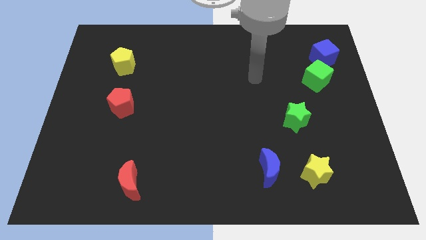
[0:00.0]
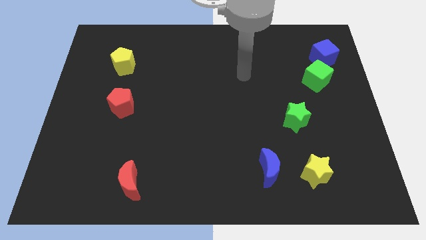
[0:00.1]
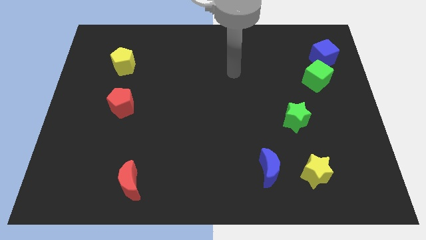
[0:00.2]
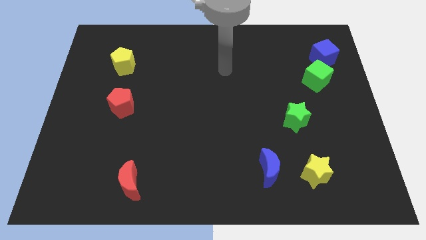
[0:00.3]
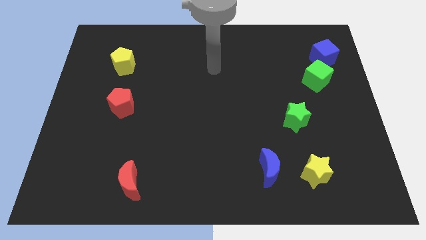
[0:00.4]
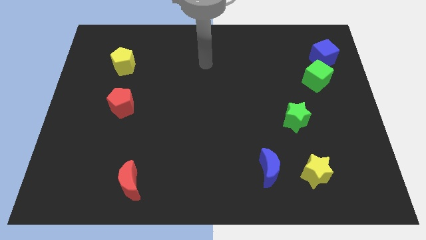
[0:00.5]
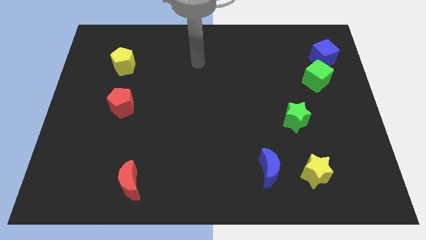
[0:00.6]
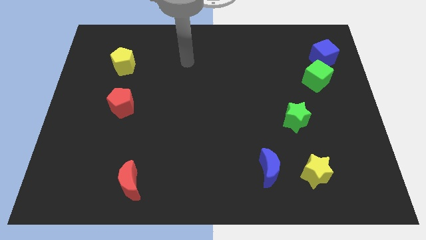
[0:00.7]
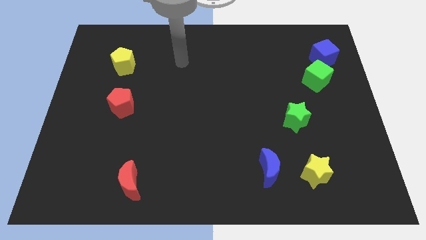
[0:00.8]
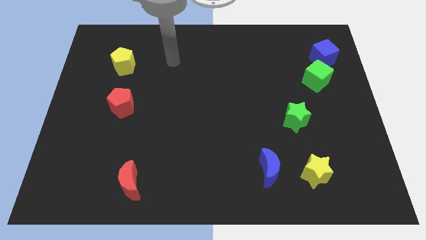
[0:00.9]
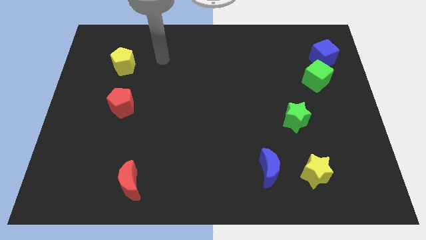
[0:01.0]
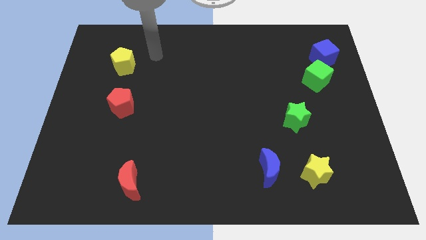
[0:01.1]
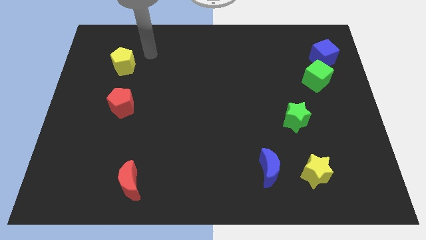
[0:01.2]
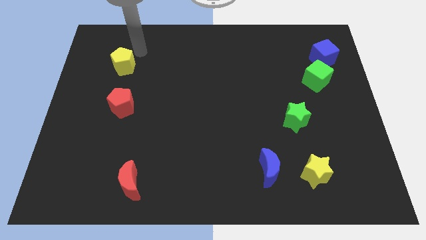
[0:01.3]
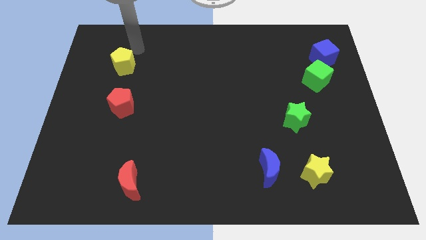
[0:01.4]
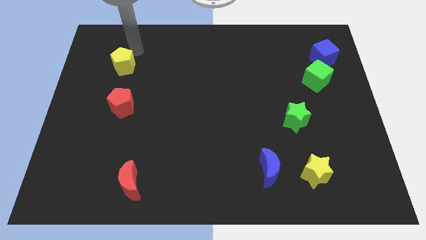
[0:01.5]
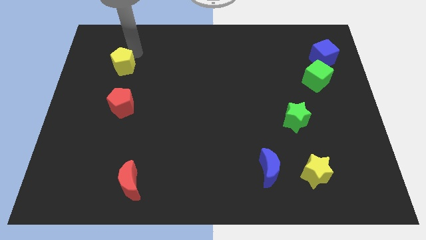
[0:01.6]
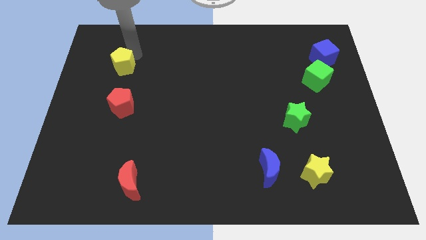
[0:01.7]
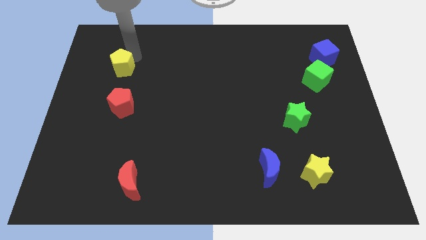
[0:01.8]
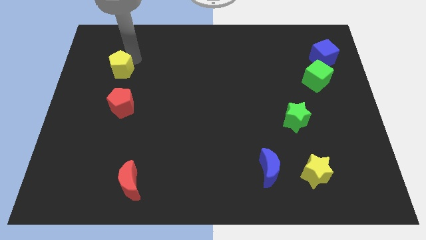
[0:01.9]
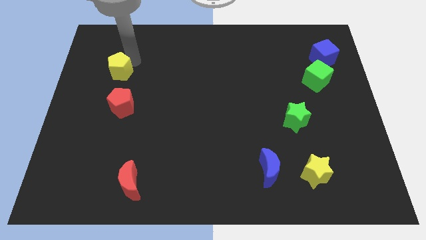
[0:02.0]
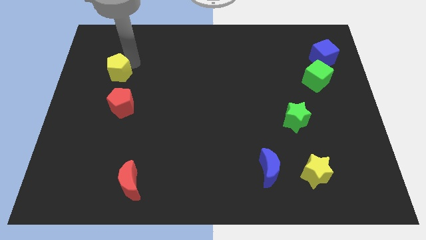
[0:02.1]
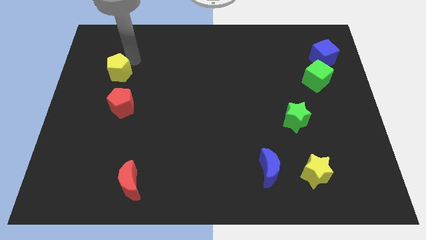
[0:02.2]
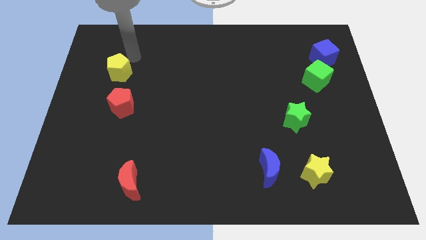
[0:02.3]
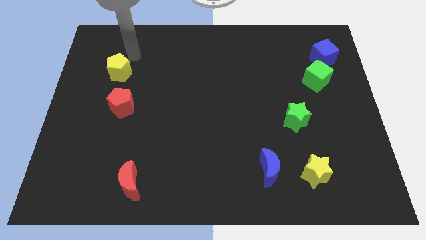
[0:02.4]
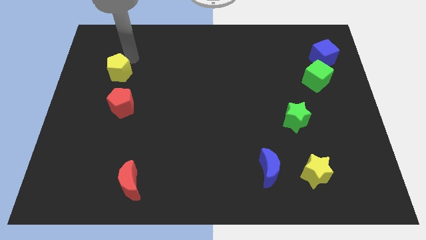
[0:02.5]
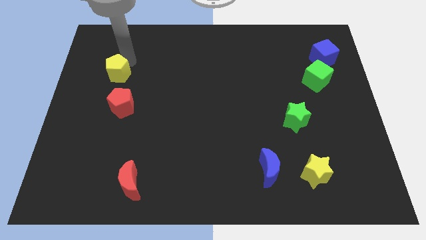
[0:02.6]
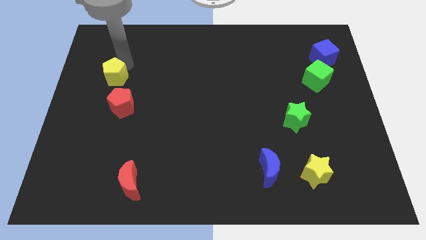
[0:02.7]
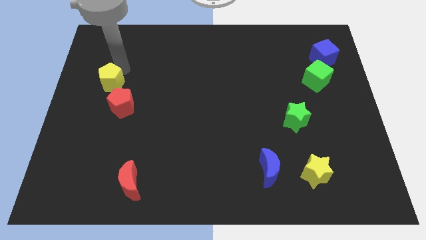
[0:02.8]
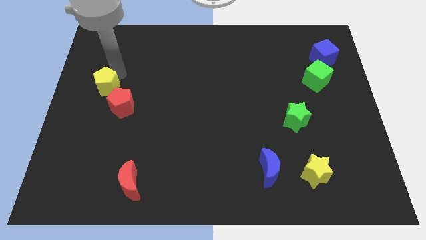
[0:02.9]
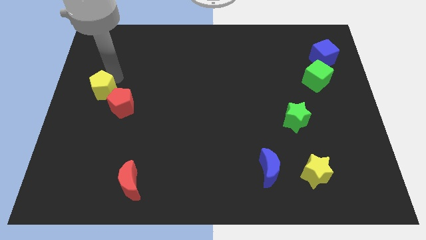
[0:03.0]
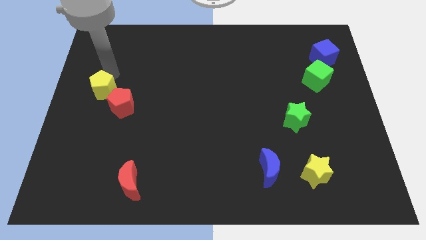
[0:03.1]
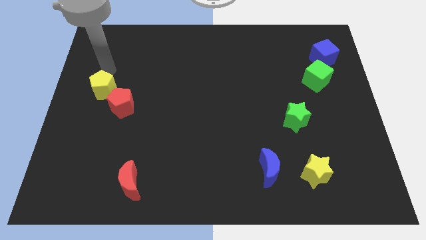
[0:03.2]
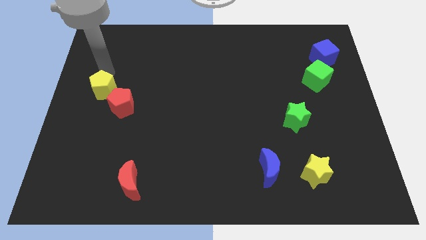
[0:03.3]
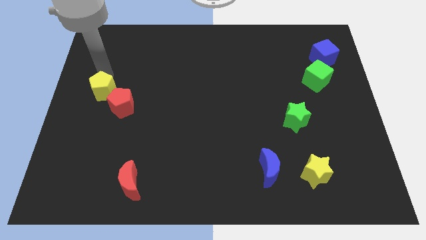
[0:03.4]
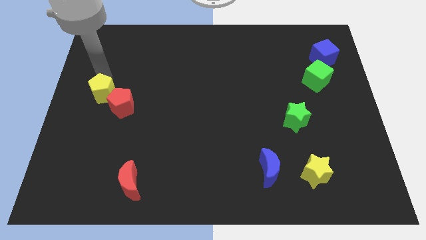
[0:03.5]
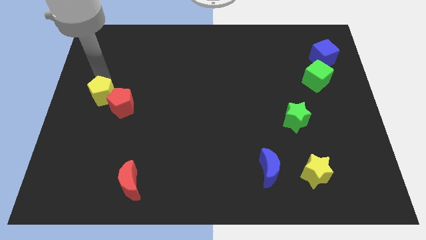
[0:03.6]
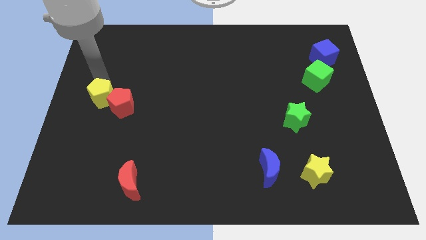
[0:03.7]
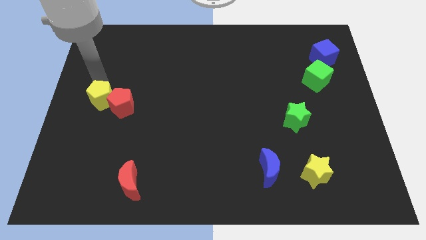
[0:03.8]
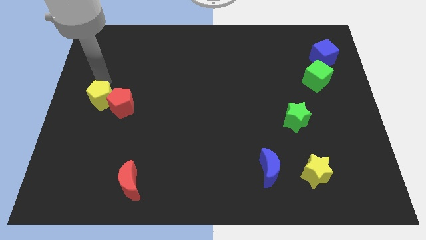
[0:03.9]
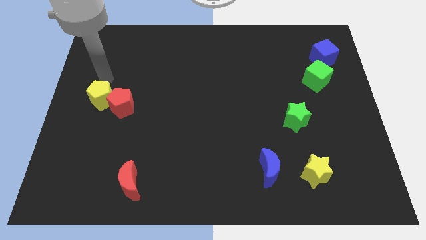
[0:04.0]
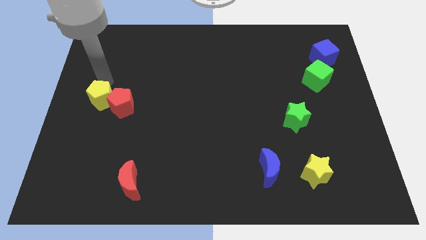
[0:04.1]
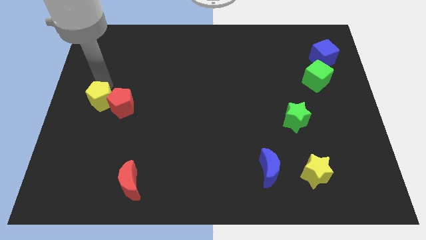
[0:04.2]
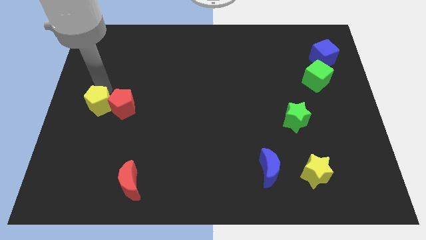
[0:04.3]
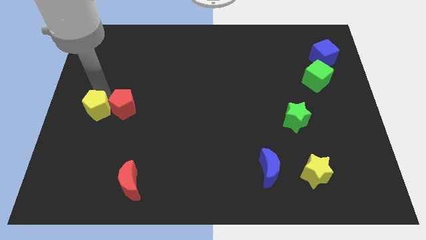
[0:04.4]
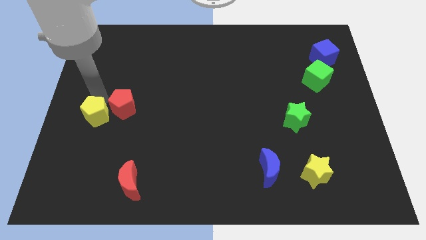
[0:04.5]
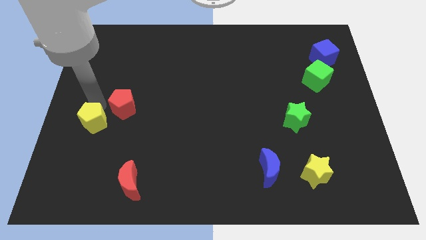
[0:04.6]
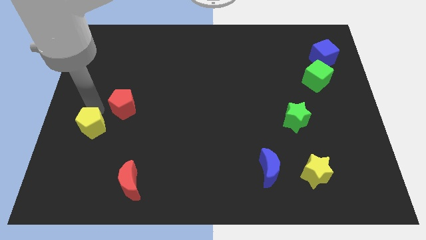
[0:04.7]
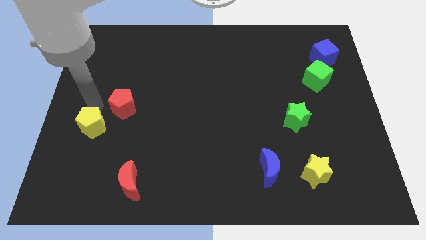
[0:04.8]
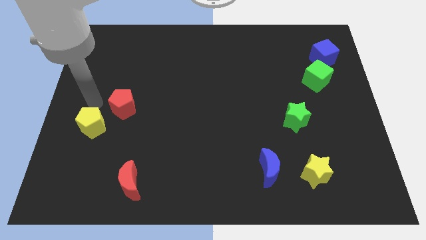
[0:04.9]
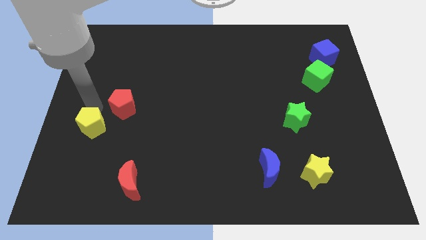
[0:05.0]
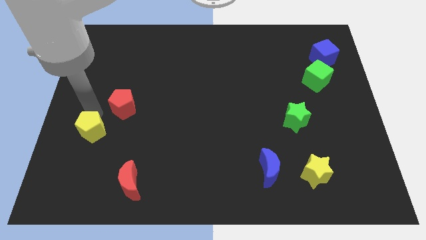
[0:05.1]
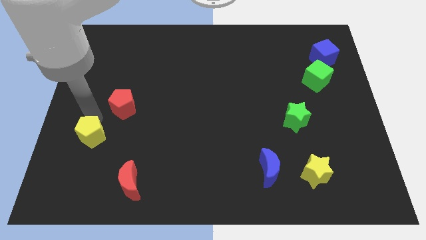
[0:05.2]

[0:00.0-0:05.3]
push the yellow pentagon downwards

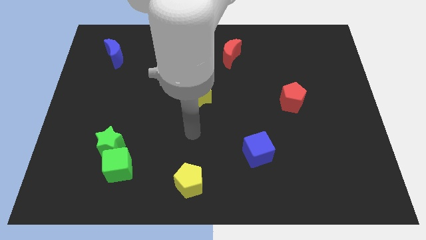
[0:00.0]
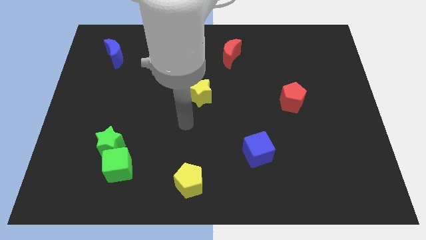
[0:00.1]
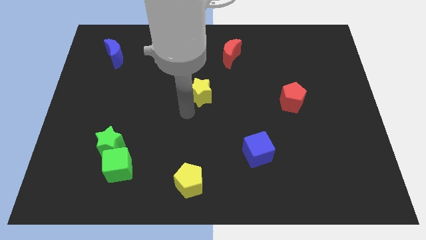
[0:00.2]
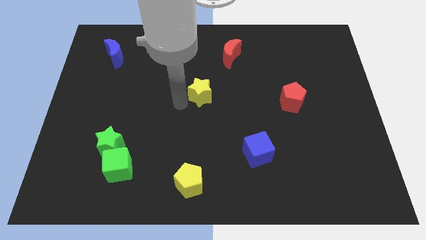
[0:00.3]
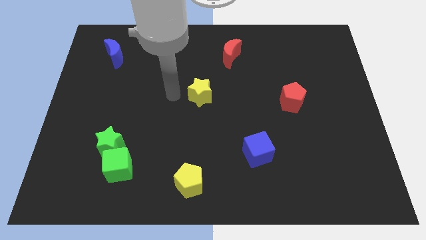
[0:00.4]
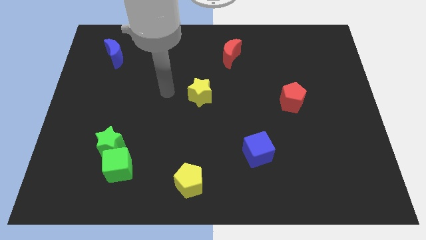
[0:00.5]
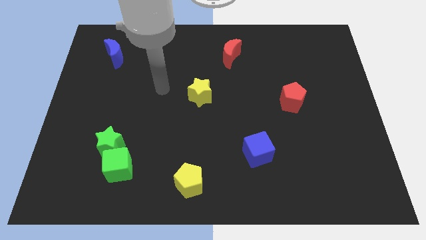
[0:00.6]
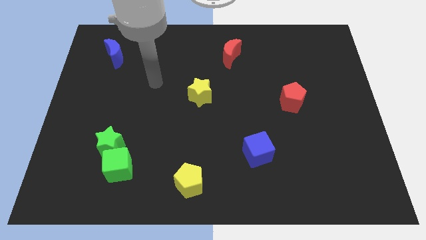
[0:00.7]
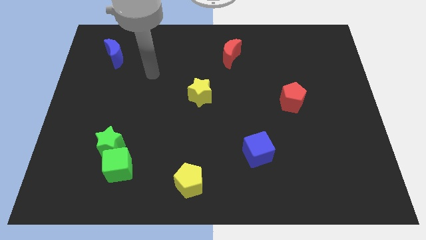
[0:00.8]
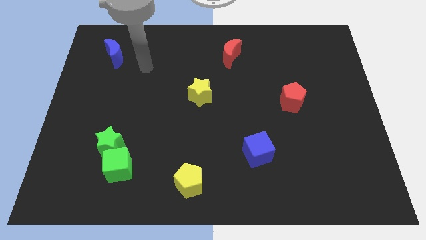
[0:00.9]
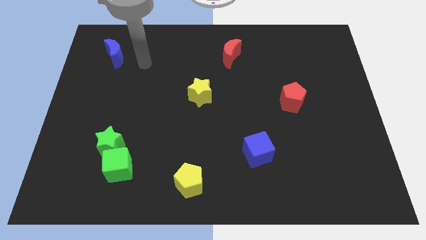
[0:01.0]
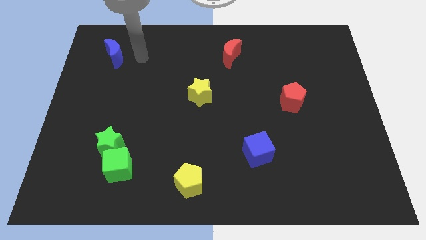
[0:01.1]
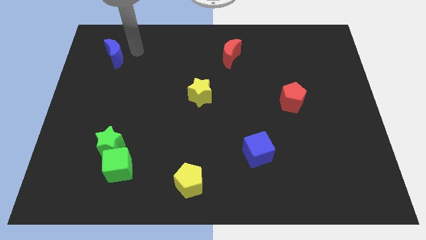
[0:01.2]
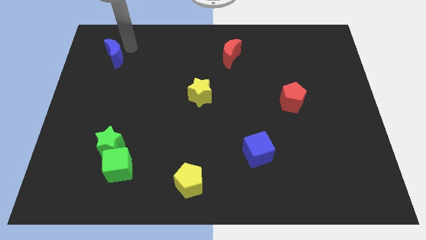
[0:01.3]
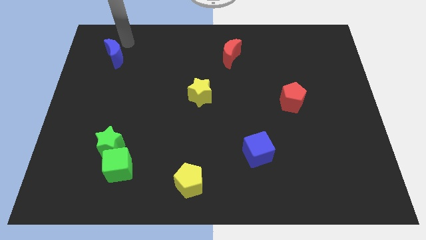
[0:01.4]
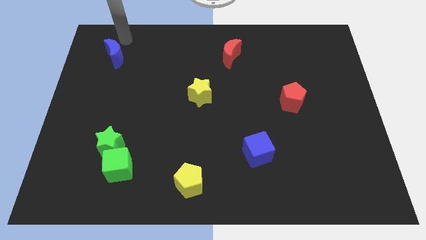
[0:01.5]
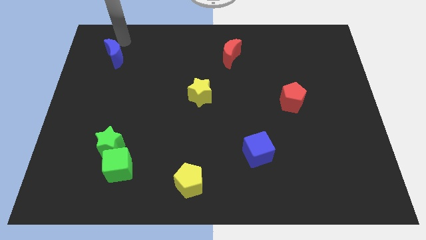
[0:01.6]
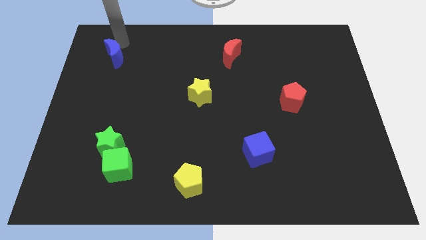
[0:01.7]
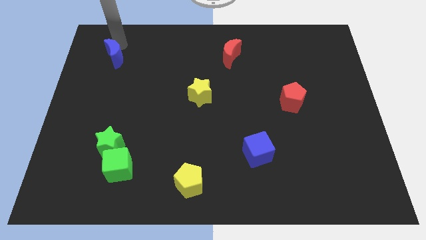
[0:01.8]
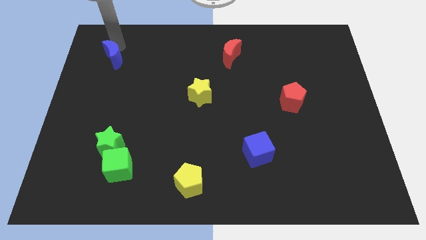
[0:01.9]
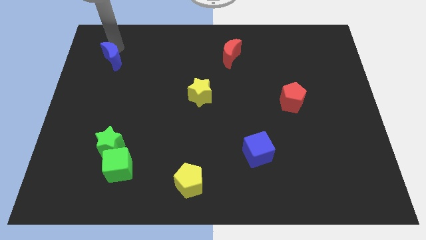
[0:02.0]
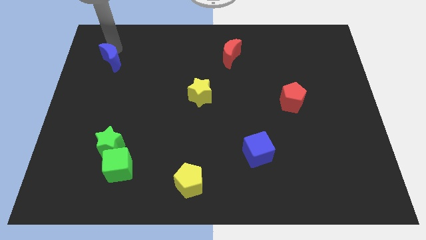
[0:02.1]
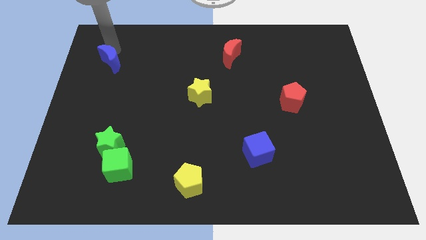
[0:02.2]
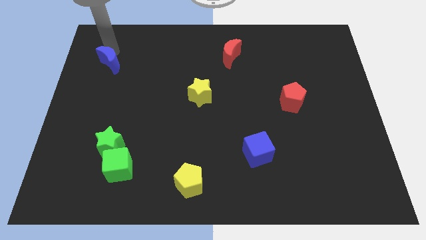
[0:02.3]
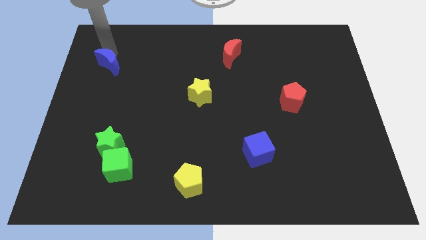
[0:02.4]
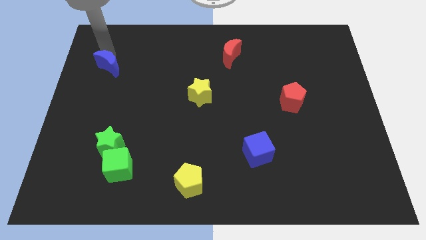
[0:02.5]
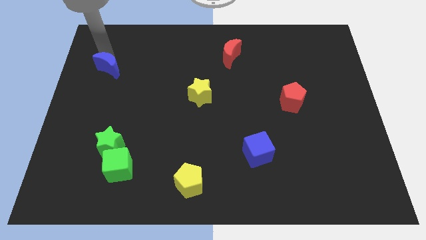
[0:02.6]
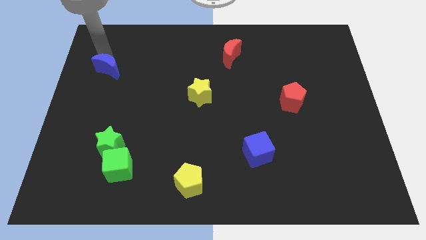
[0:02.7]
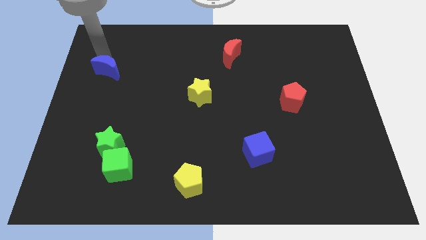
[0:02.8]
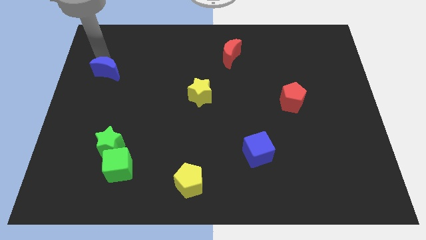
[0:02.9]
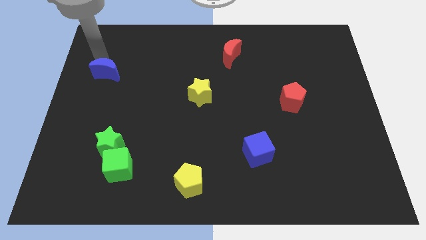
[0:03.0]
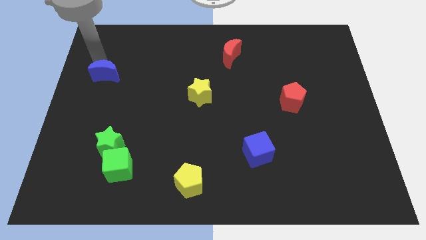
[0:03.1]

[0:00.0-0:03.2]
slightly push the blue moon downwards

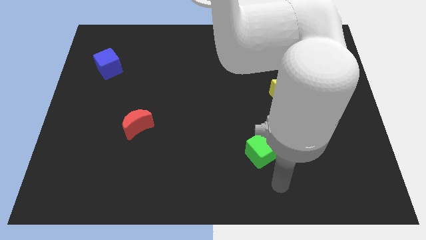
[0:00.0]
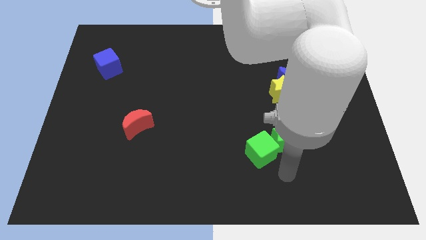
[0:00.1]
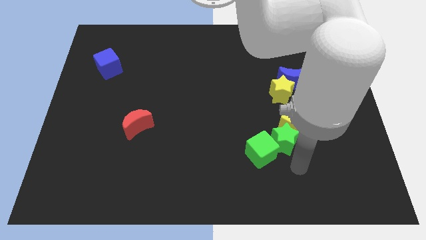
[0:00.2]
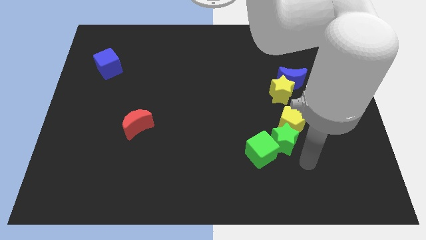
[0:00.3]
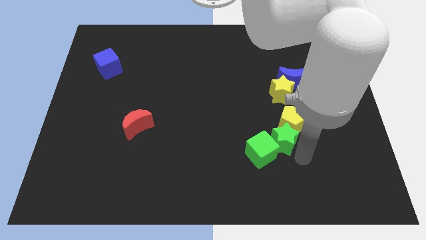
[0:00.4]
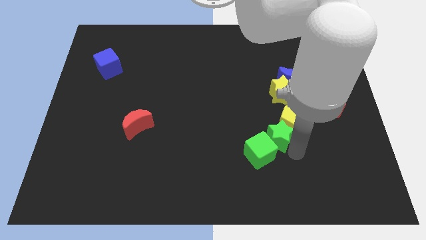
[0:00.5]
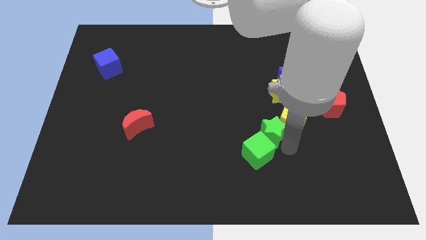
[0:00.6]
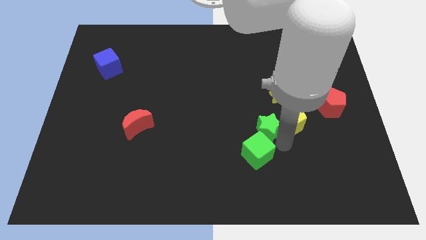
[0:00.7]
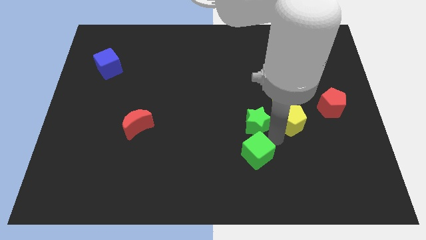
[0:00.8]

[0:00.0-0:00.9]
slide the green star upwards and left diagonally somewhat
